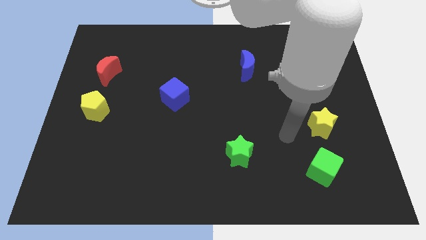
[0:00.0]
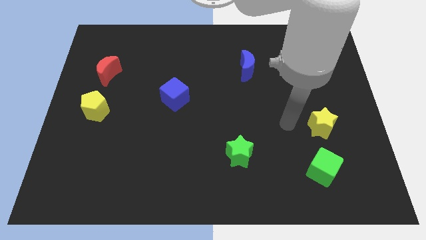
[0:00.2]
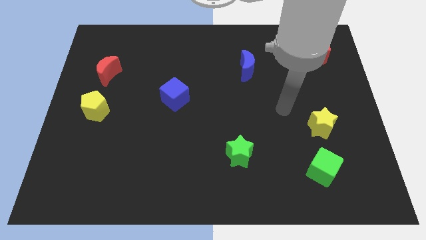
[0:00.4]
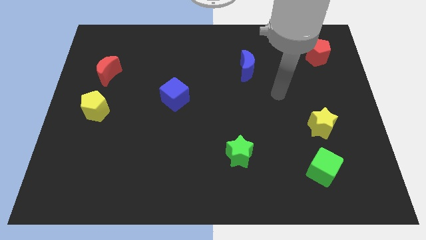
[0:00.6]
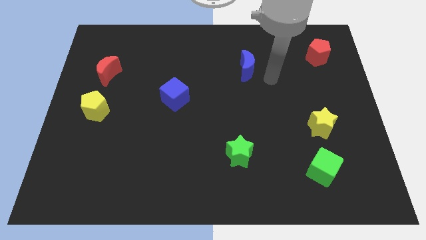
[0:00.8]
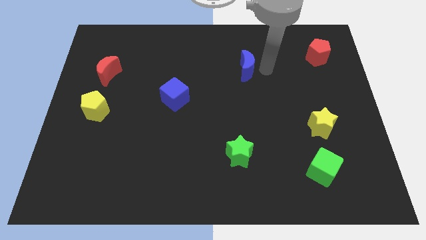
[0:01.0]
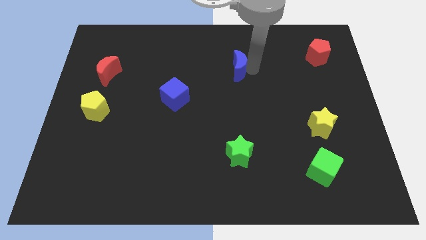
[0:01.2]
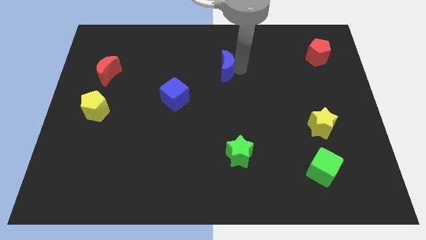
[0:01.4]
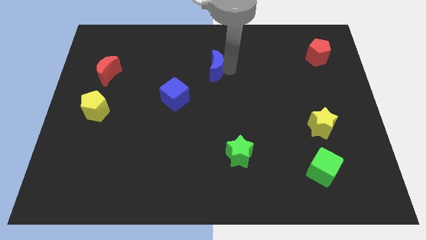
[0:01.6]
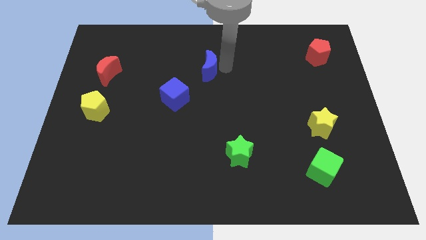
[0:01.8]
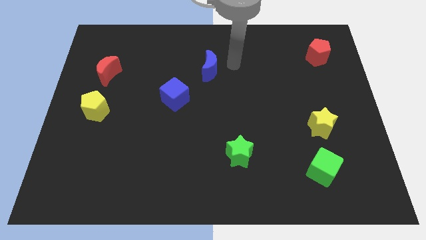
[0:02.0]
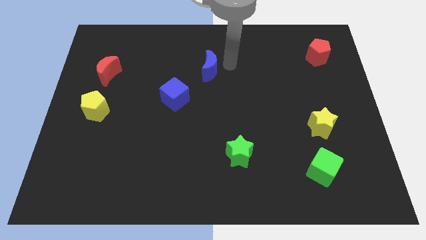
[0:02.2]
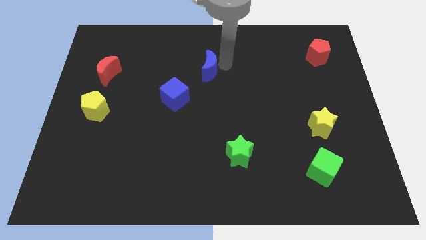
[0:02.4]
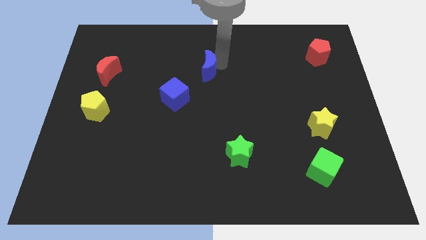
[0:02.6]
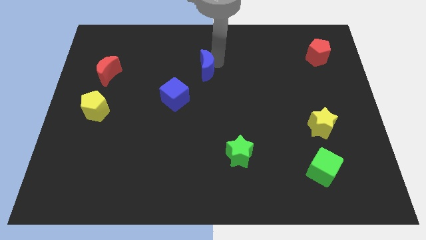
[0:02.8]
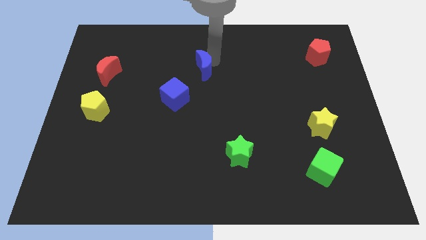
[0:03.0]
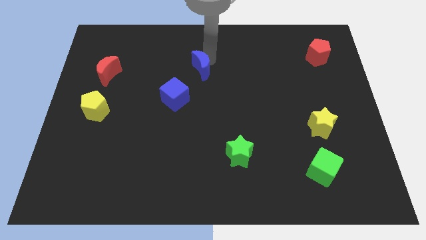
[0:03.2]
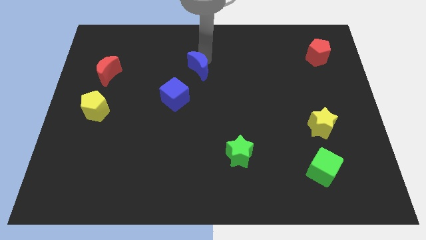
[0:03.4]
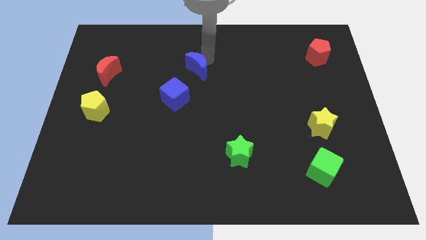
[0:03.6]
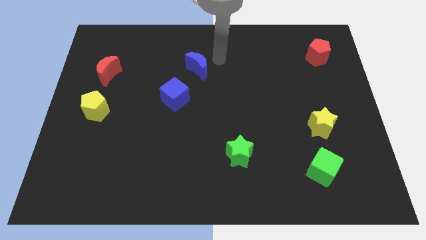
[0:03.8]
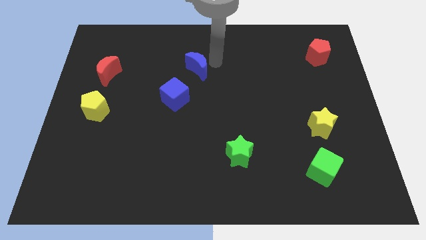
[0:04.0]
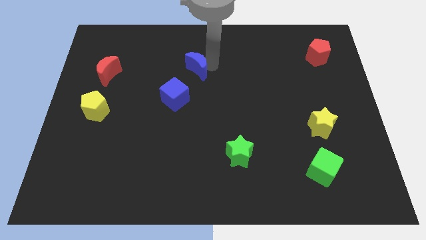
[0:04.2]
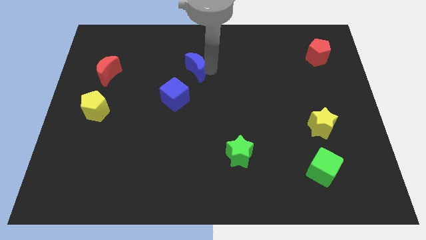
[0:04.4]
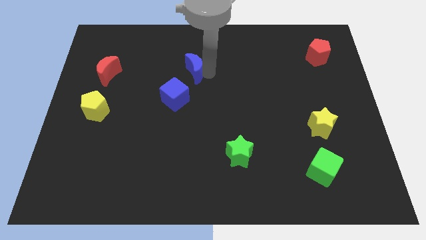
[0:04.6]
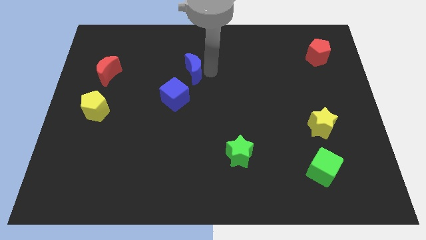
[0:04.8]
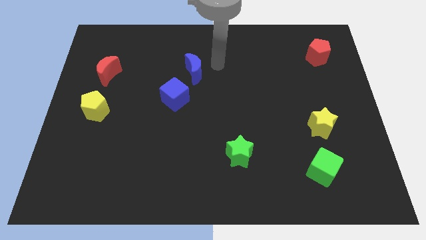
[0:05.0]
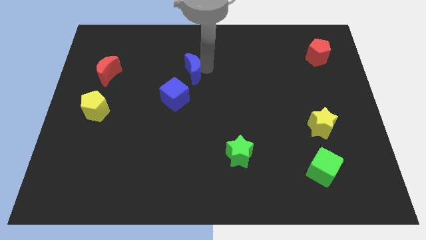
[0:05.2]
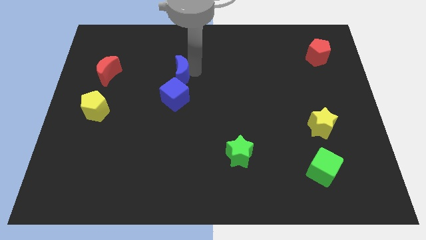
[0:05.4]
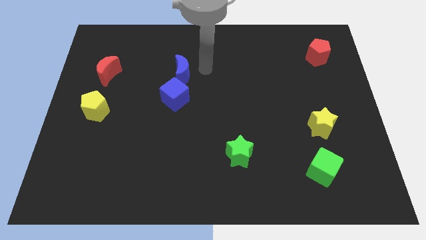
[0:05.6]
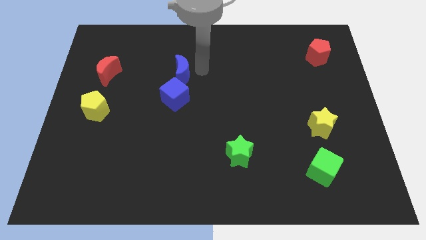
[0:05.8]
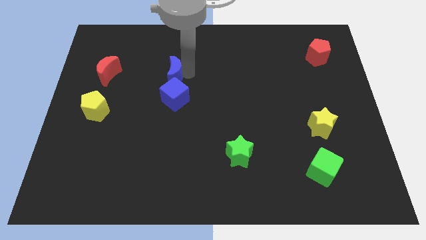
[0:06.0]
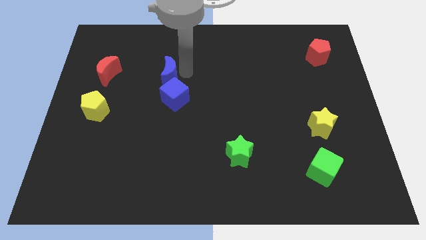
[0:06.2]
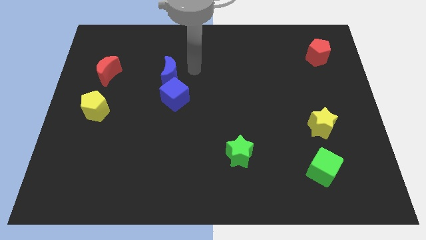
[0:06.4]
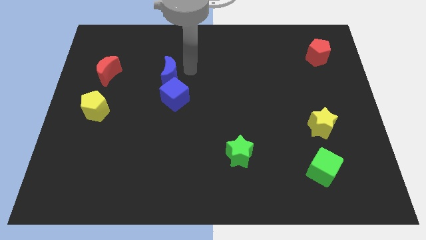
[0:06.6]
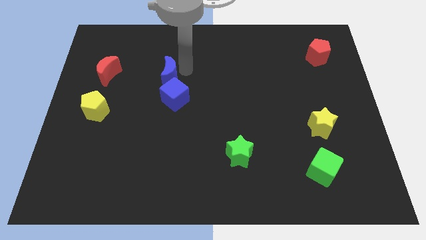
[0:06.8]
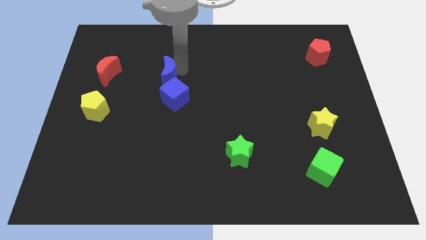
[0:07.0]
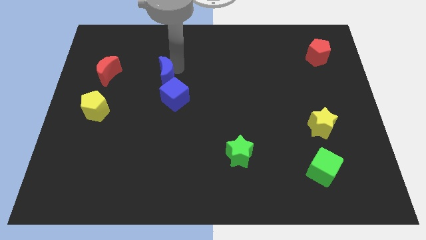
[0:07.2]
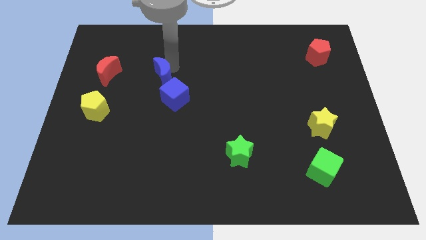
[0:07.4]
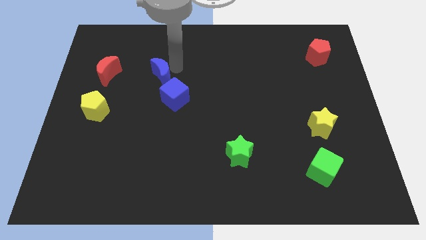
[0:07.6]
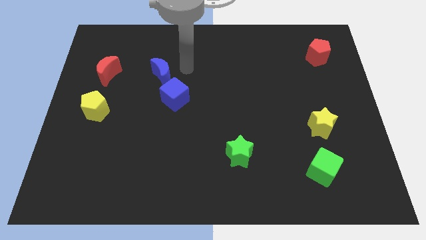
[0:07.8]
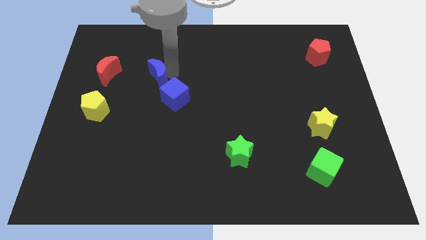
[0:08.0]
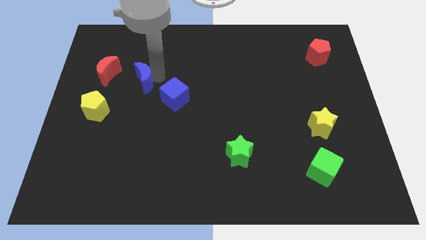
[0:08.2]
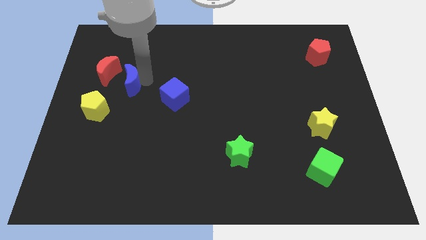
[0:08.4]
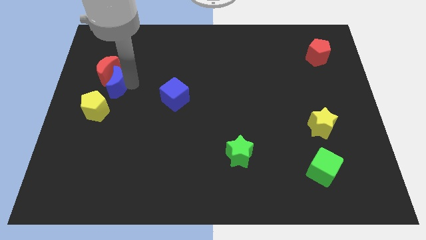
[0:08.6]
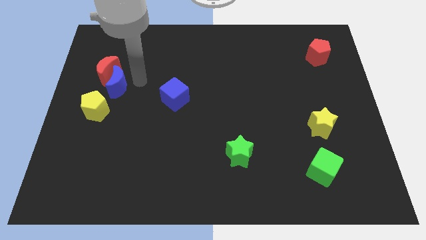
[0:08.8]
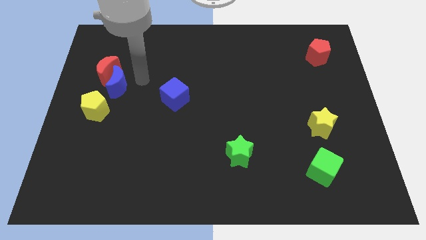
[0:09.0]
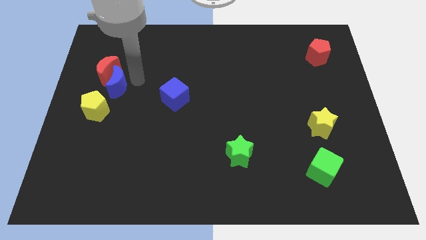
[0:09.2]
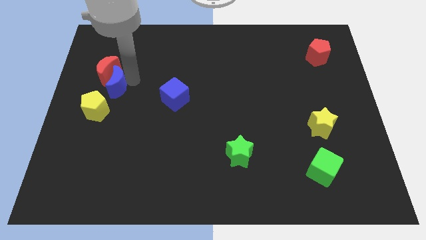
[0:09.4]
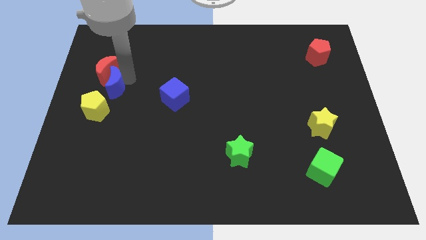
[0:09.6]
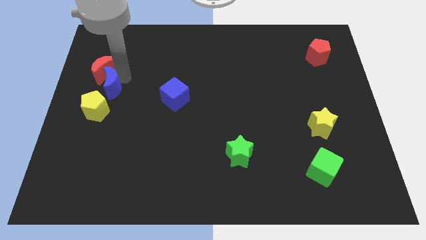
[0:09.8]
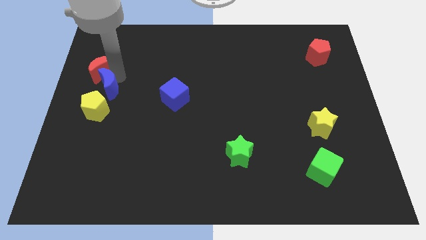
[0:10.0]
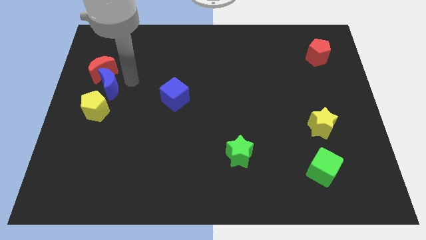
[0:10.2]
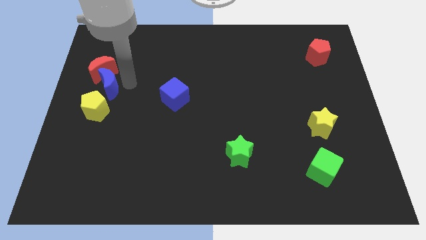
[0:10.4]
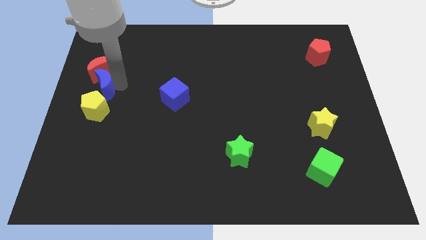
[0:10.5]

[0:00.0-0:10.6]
slide the blue moon to the center left

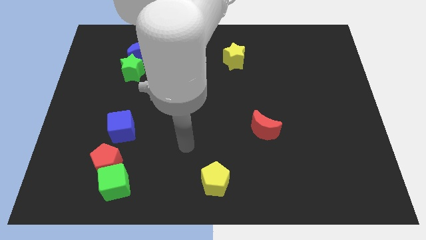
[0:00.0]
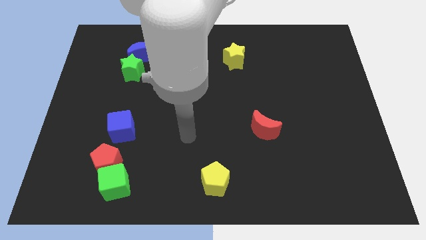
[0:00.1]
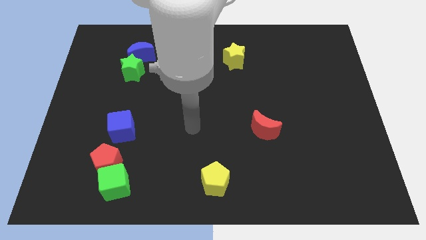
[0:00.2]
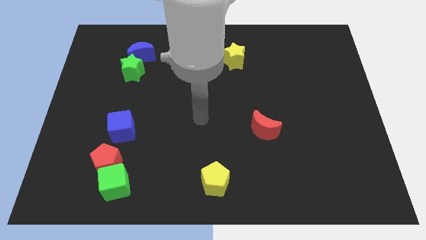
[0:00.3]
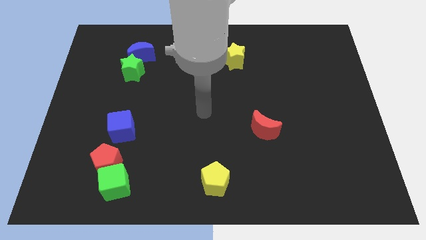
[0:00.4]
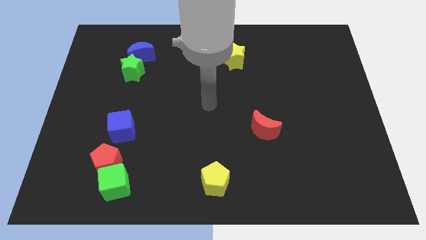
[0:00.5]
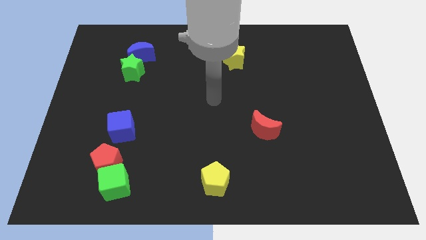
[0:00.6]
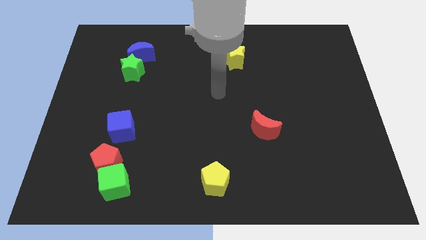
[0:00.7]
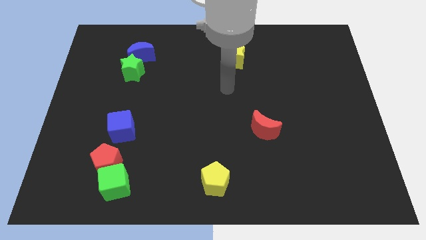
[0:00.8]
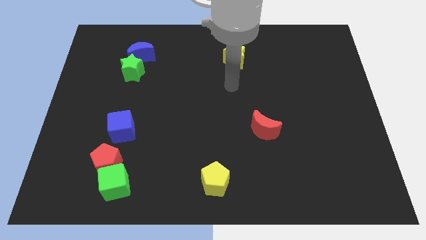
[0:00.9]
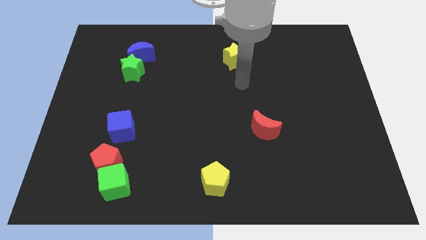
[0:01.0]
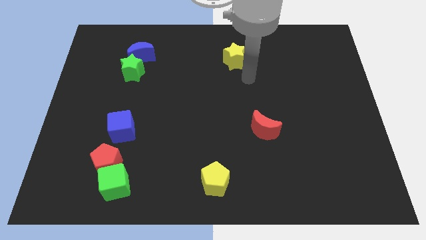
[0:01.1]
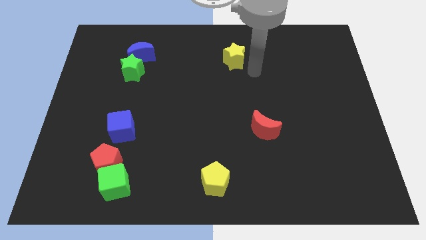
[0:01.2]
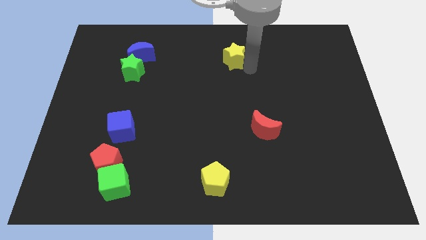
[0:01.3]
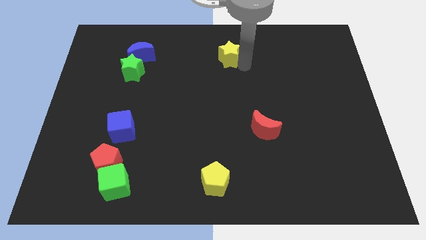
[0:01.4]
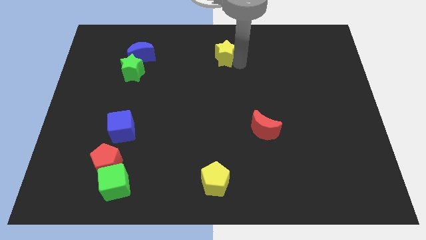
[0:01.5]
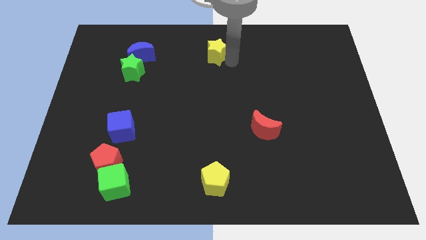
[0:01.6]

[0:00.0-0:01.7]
move the yellow star to the top side

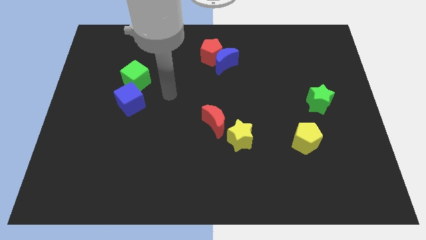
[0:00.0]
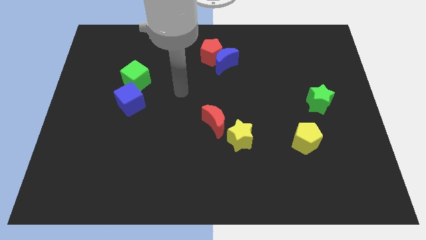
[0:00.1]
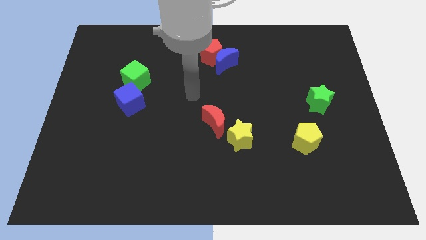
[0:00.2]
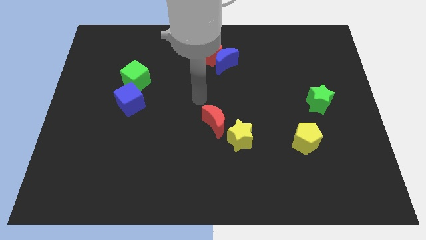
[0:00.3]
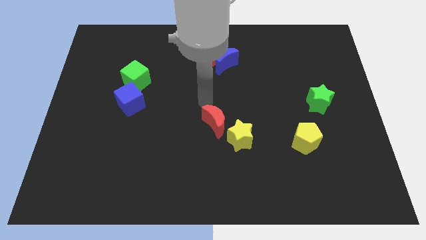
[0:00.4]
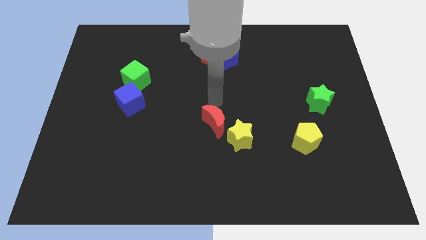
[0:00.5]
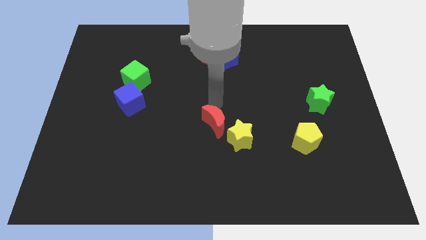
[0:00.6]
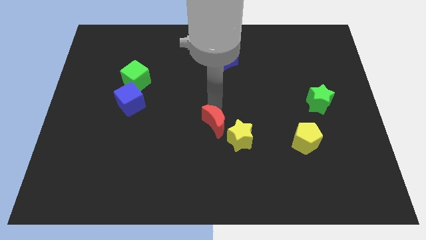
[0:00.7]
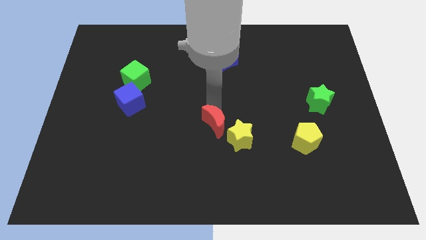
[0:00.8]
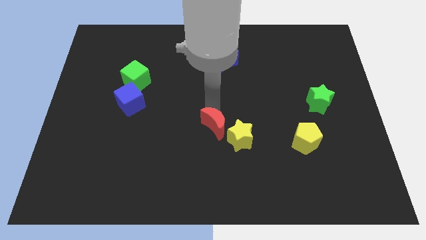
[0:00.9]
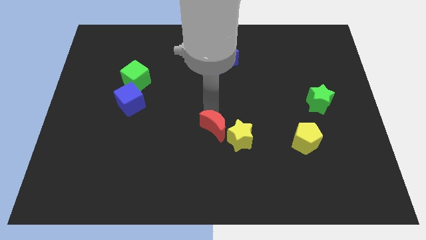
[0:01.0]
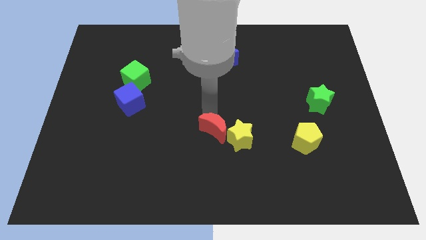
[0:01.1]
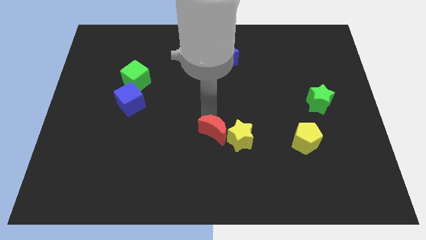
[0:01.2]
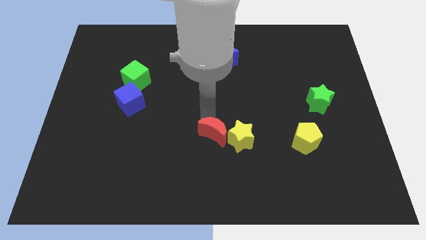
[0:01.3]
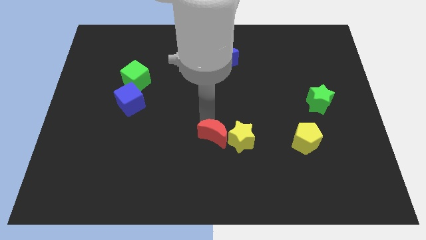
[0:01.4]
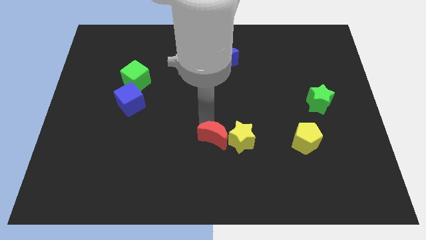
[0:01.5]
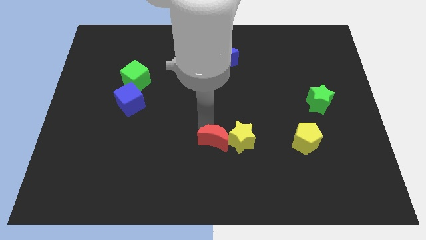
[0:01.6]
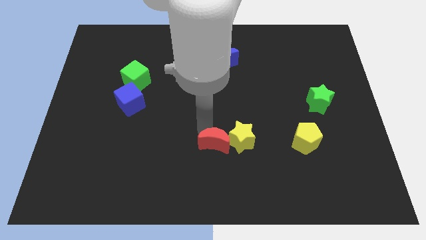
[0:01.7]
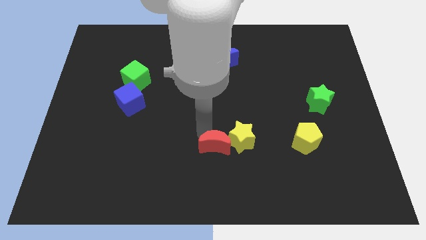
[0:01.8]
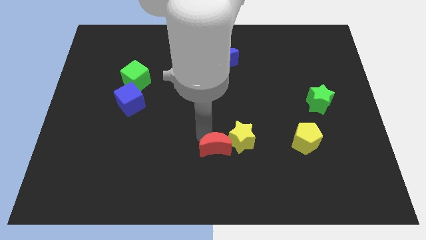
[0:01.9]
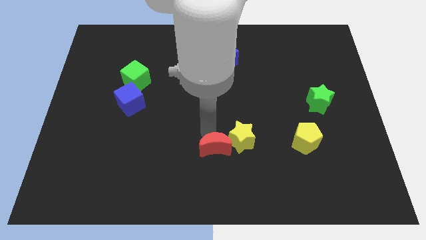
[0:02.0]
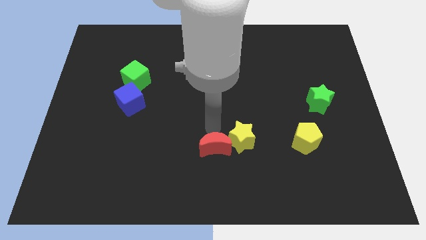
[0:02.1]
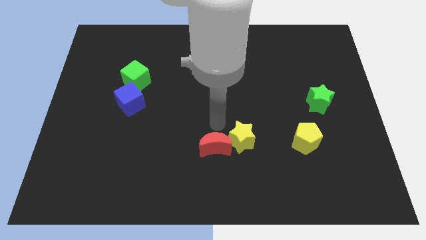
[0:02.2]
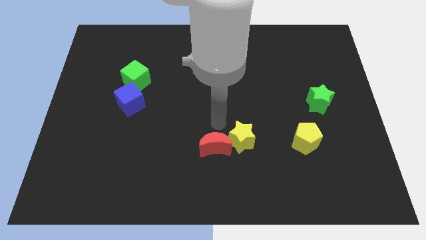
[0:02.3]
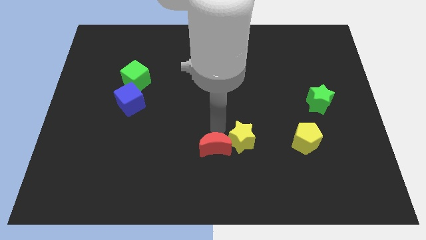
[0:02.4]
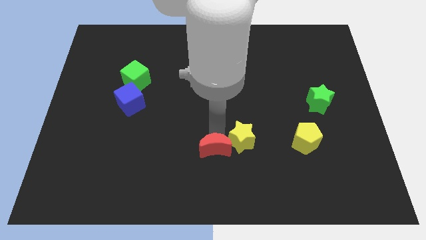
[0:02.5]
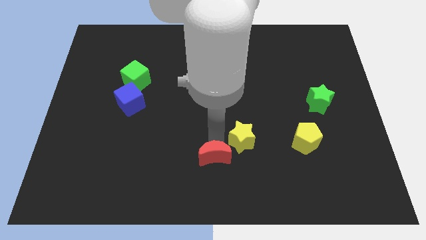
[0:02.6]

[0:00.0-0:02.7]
put the red moon to the bottom
